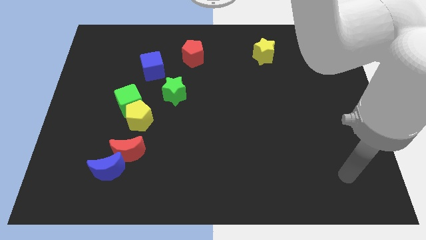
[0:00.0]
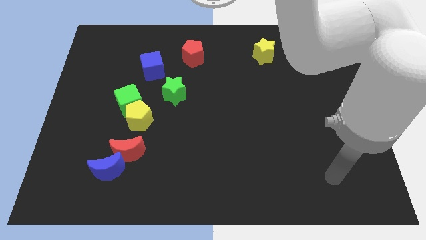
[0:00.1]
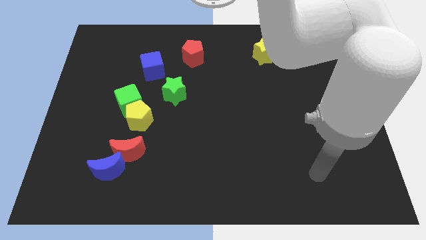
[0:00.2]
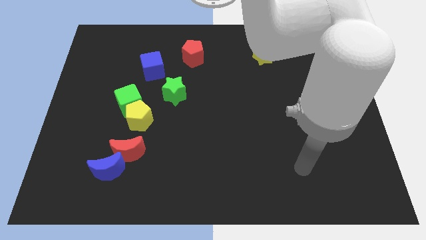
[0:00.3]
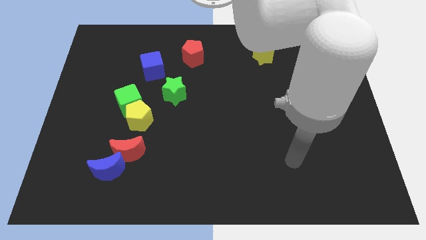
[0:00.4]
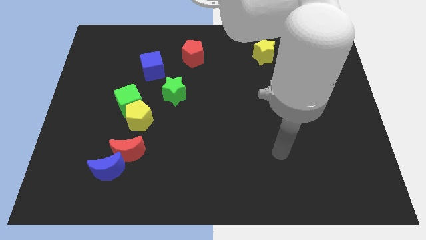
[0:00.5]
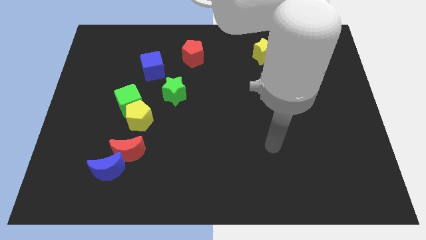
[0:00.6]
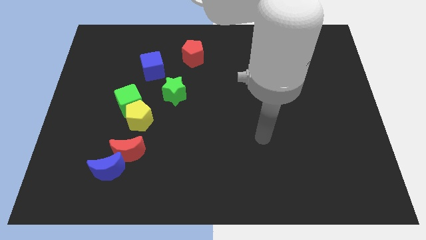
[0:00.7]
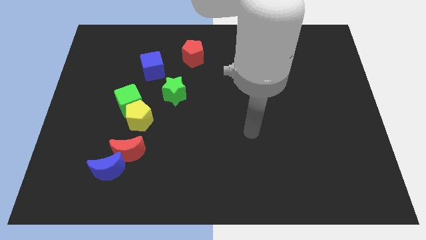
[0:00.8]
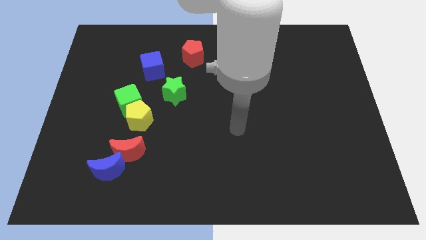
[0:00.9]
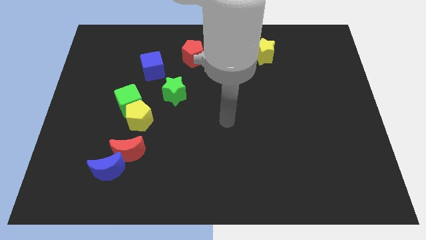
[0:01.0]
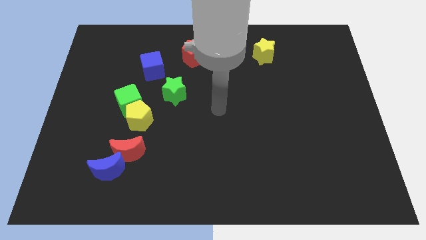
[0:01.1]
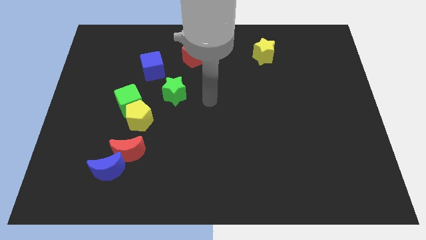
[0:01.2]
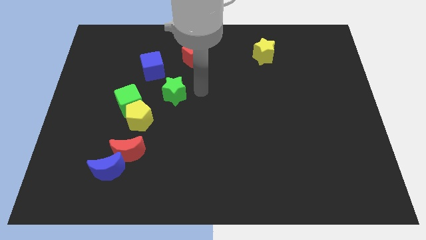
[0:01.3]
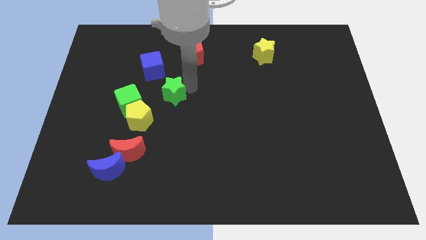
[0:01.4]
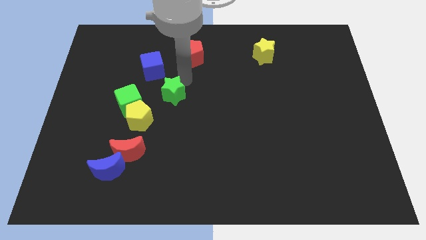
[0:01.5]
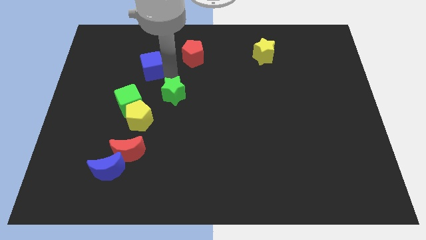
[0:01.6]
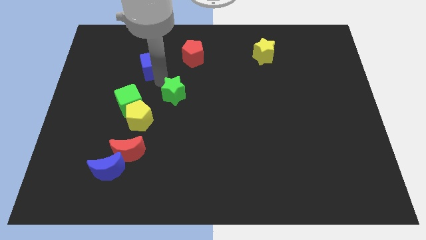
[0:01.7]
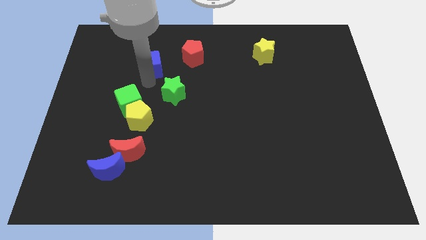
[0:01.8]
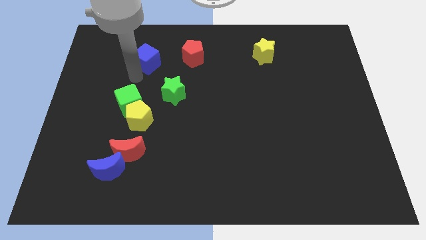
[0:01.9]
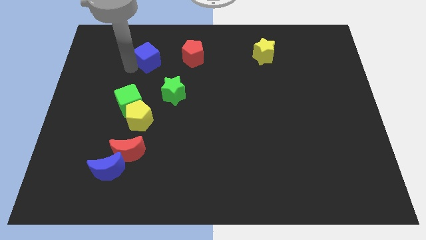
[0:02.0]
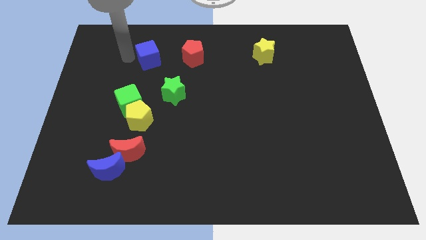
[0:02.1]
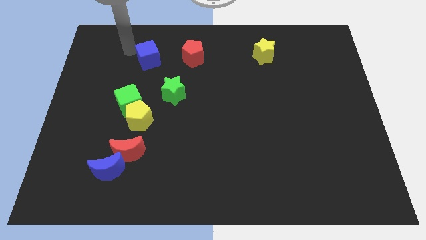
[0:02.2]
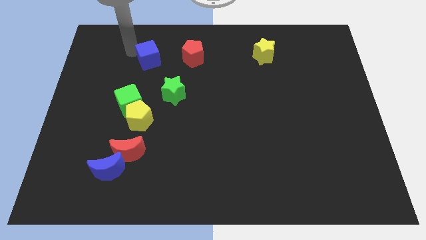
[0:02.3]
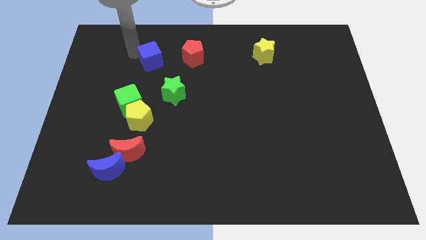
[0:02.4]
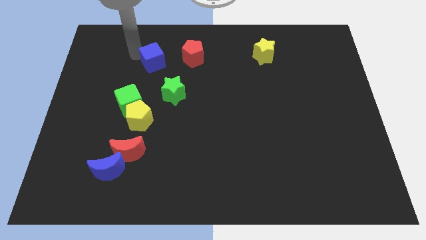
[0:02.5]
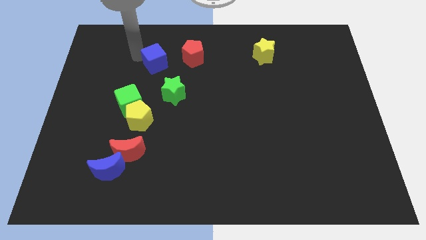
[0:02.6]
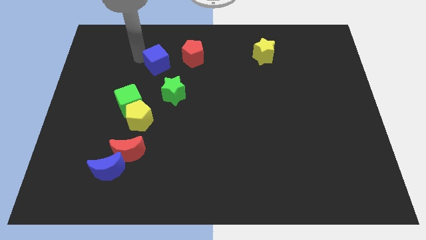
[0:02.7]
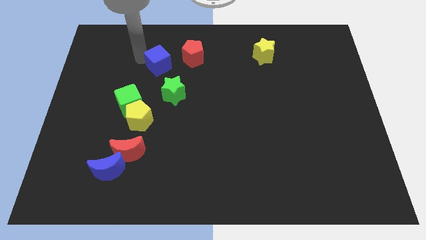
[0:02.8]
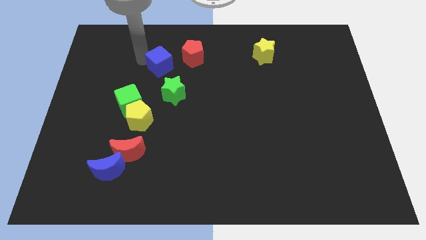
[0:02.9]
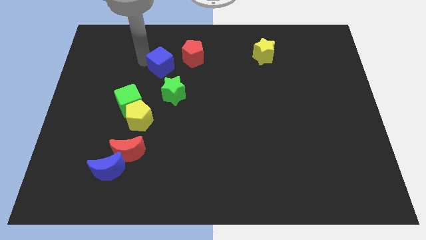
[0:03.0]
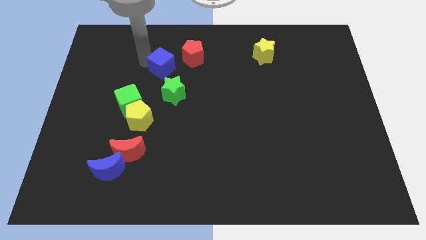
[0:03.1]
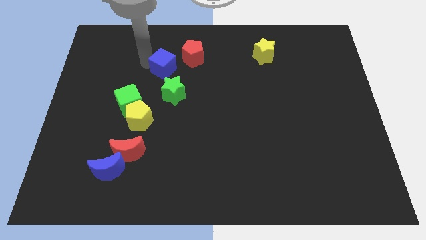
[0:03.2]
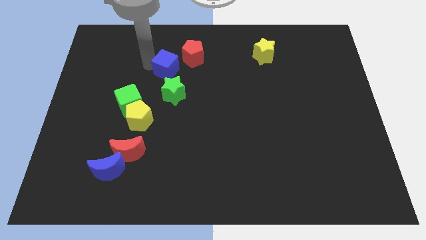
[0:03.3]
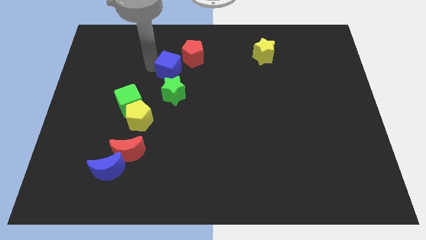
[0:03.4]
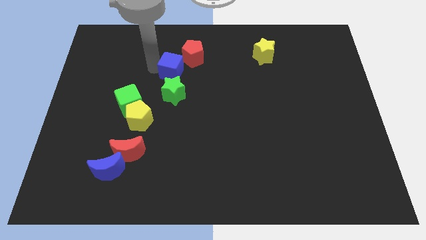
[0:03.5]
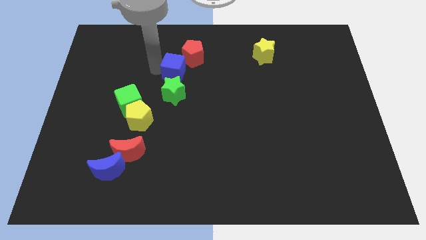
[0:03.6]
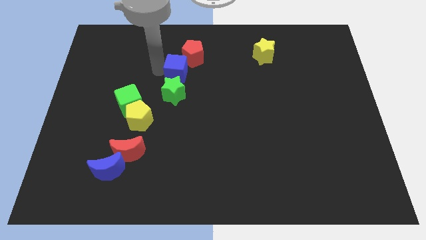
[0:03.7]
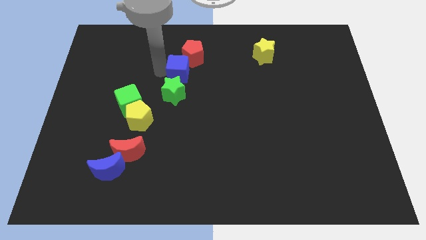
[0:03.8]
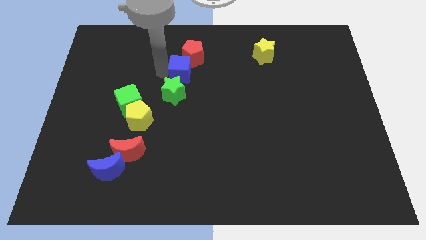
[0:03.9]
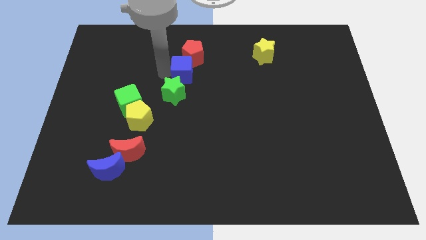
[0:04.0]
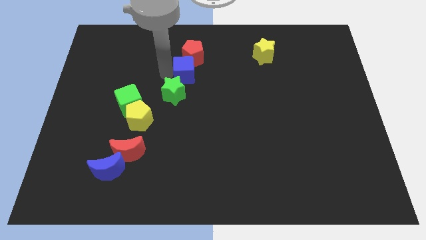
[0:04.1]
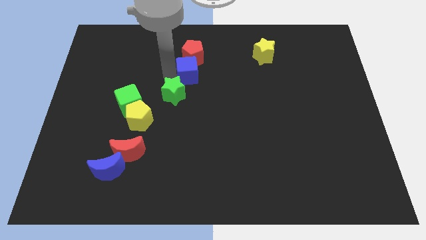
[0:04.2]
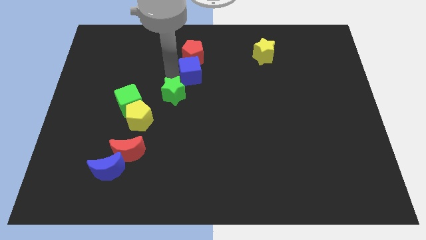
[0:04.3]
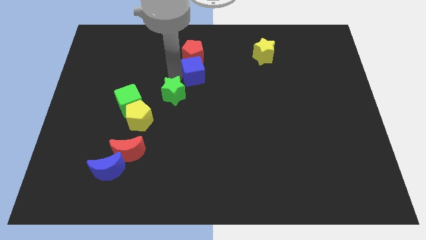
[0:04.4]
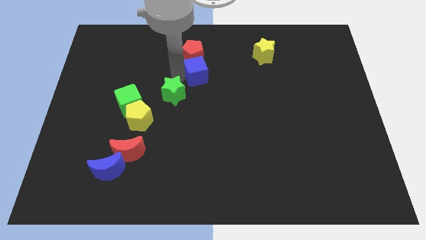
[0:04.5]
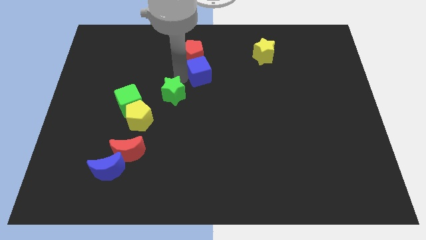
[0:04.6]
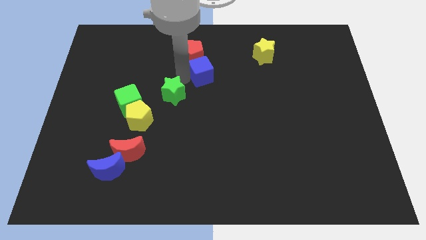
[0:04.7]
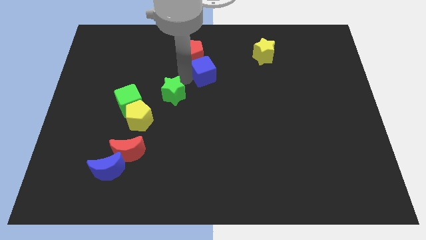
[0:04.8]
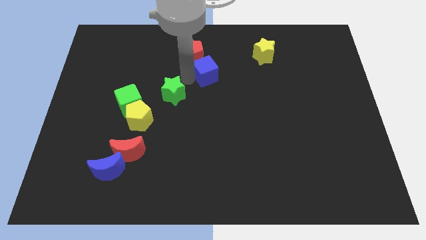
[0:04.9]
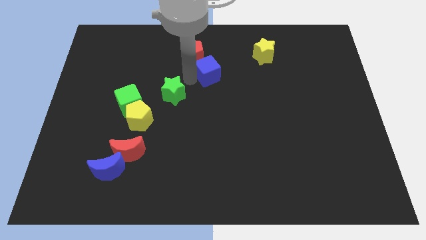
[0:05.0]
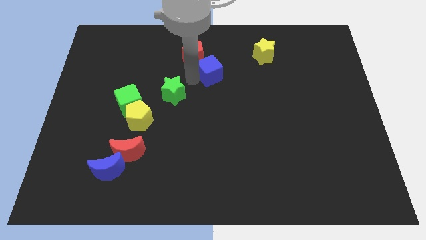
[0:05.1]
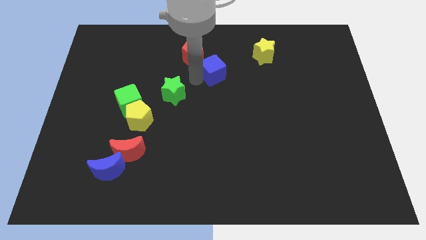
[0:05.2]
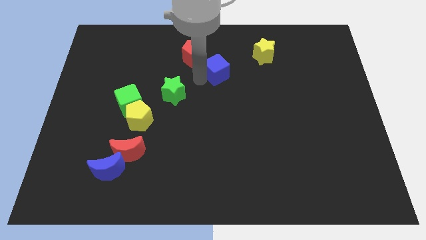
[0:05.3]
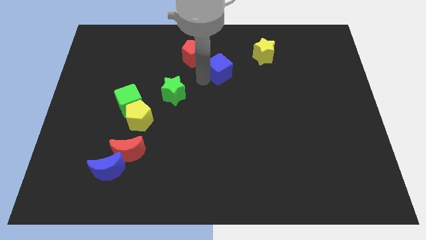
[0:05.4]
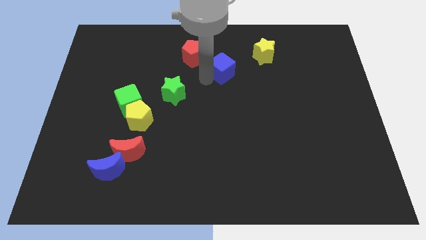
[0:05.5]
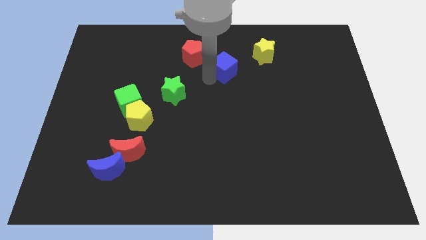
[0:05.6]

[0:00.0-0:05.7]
move the blue cube to the right side of the red pentagon

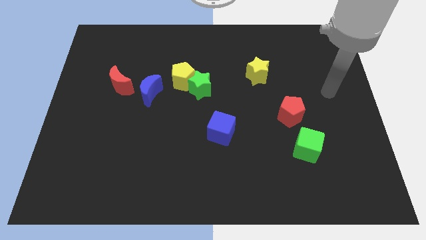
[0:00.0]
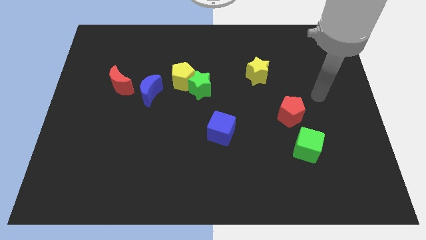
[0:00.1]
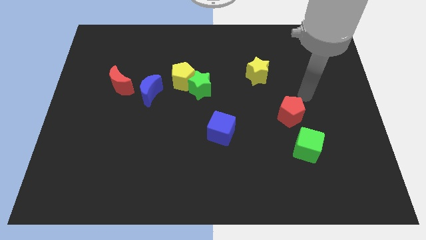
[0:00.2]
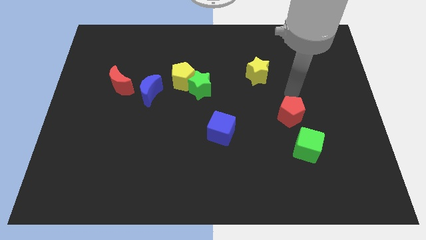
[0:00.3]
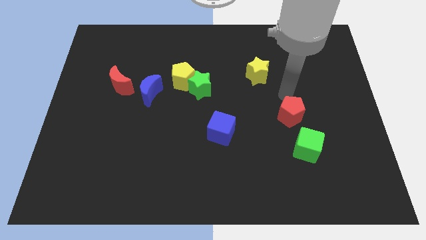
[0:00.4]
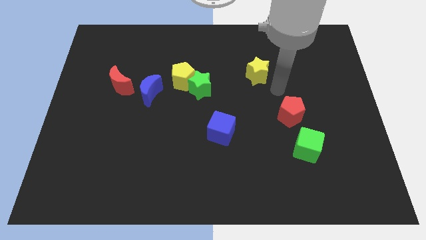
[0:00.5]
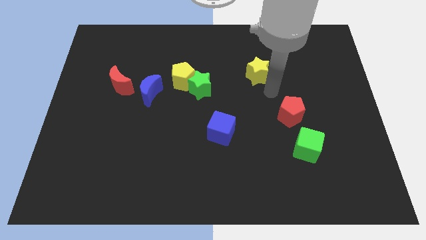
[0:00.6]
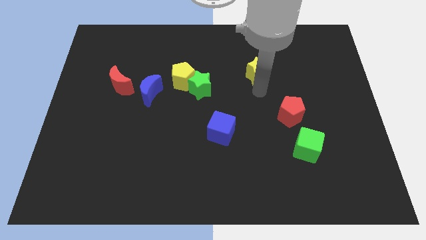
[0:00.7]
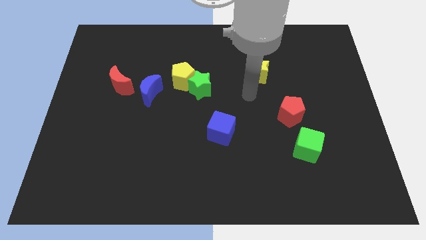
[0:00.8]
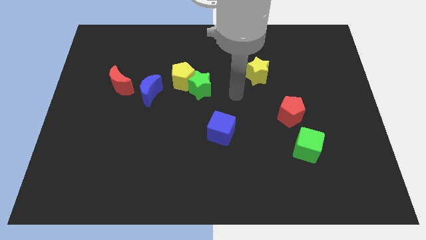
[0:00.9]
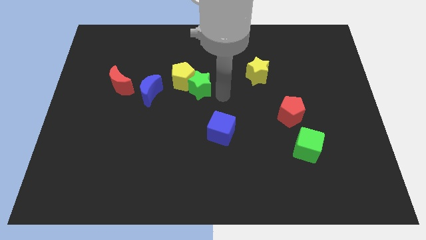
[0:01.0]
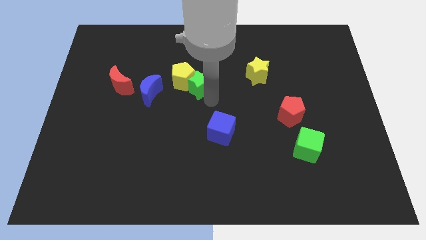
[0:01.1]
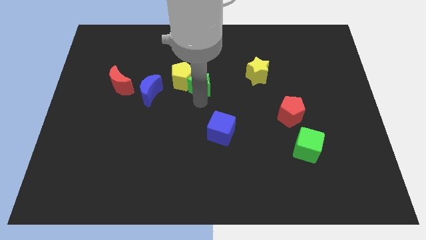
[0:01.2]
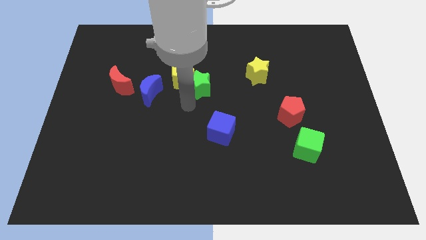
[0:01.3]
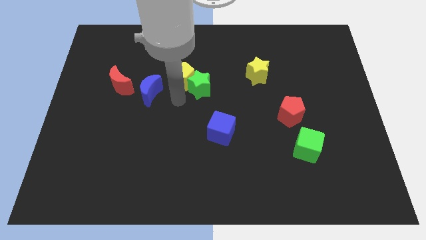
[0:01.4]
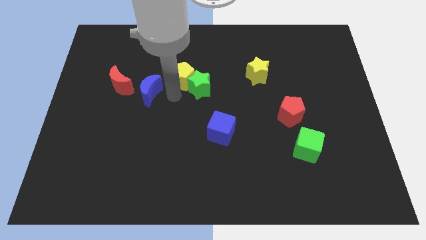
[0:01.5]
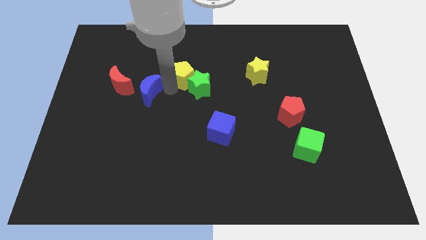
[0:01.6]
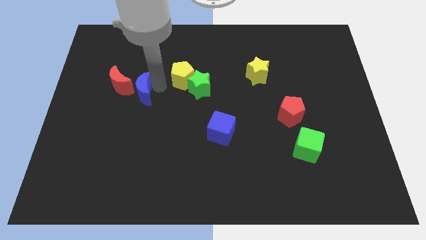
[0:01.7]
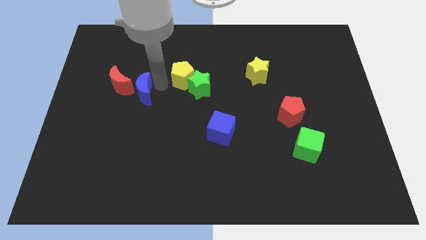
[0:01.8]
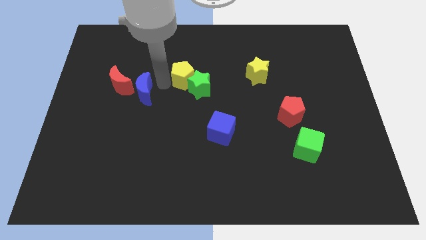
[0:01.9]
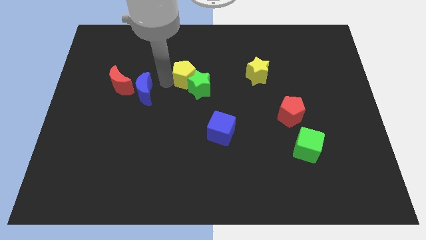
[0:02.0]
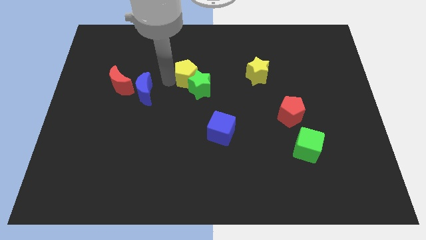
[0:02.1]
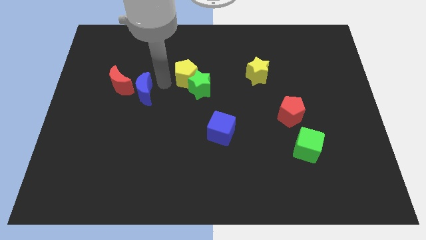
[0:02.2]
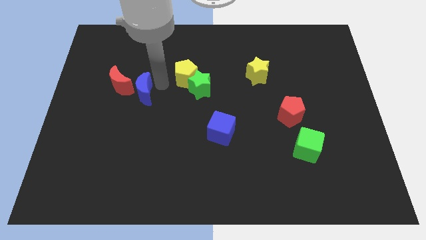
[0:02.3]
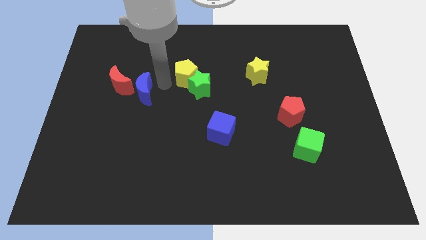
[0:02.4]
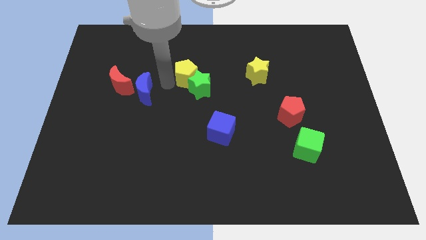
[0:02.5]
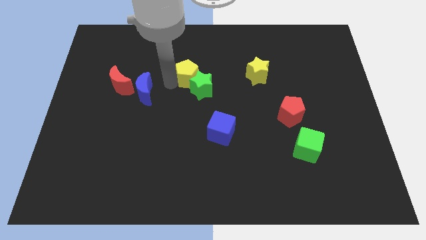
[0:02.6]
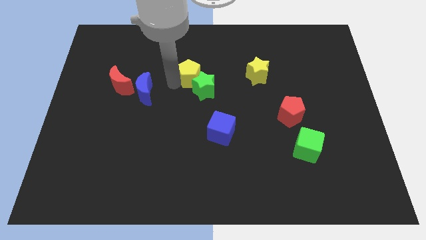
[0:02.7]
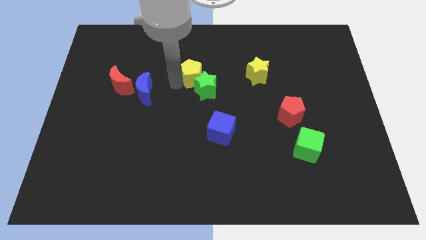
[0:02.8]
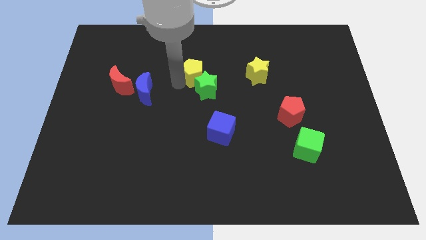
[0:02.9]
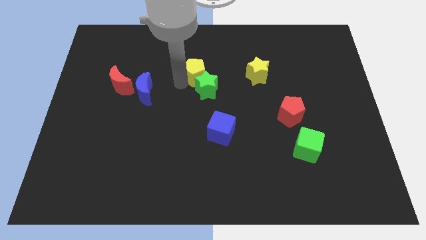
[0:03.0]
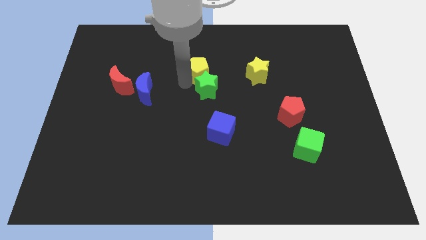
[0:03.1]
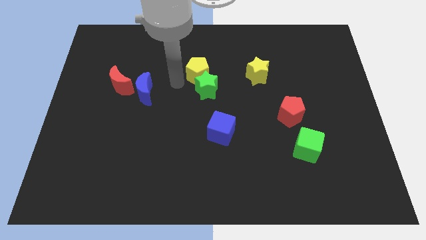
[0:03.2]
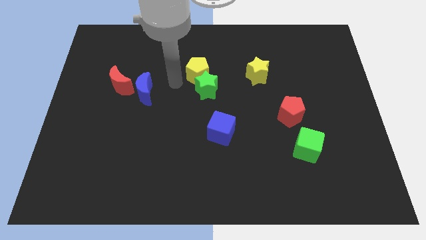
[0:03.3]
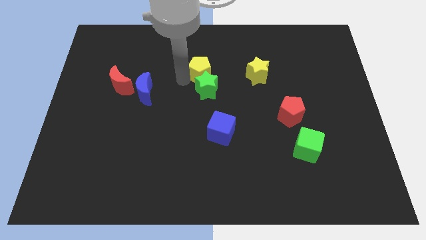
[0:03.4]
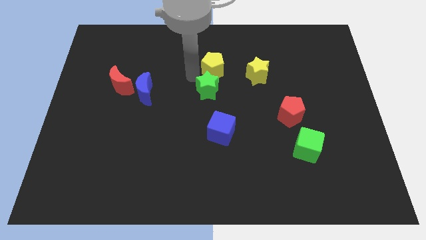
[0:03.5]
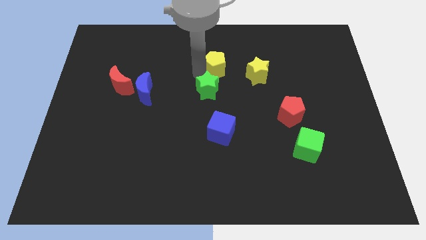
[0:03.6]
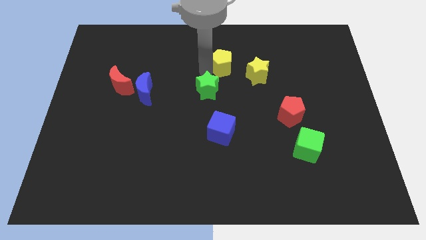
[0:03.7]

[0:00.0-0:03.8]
move the yellow pentagon diagonally up and to the left of the yellow star
